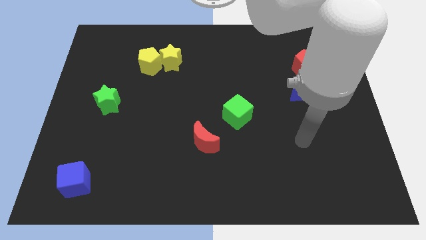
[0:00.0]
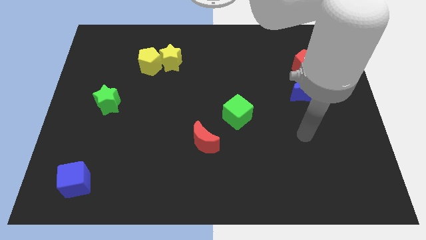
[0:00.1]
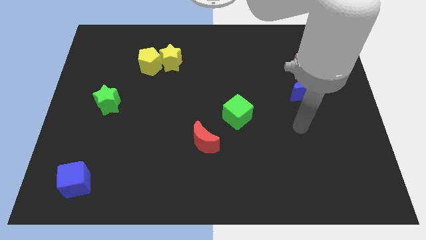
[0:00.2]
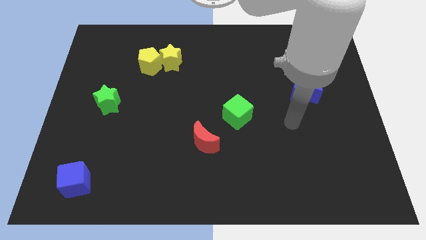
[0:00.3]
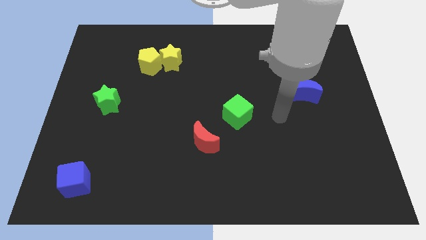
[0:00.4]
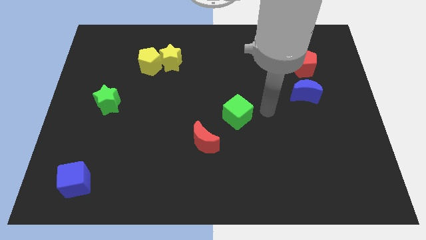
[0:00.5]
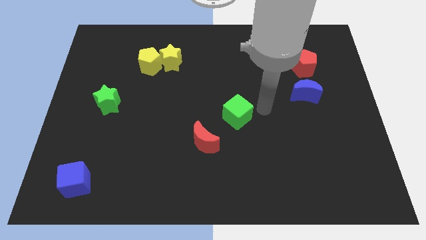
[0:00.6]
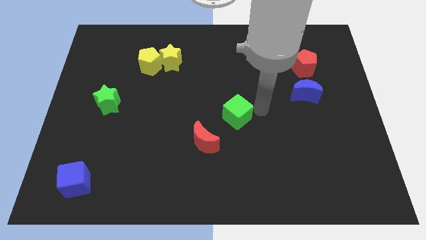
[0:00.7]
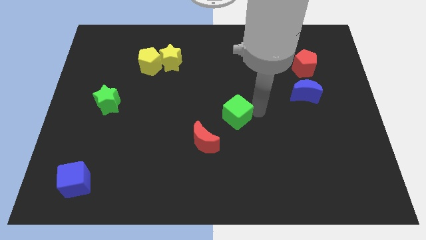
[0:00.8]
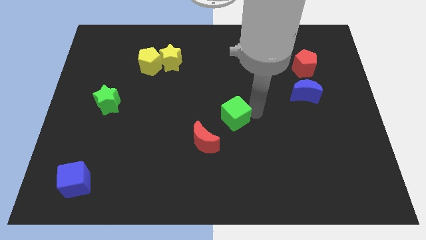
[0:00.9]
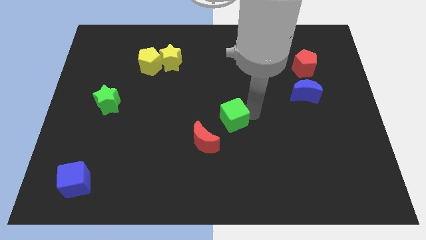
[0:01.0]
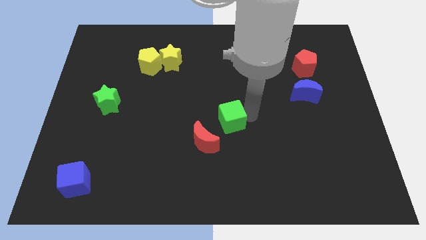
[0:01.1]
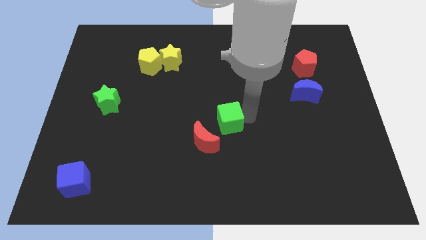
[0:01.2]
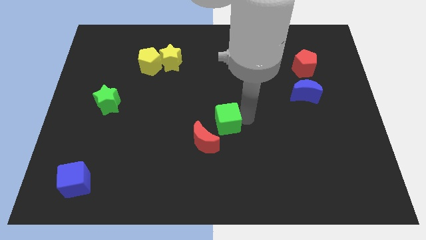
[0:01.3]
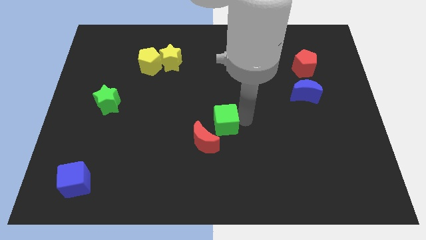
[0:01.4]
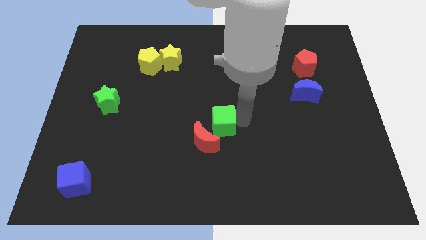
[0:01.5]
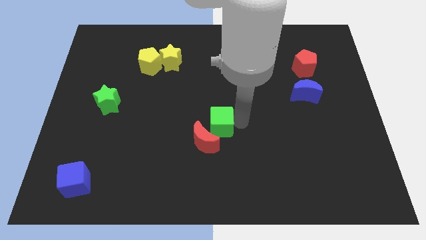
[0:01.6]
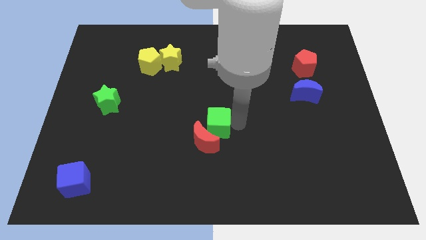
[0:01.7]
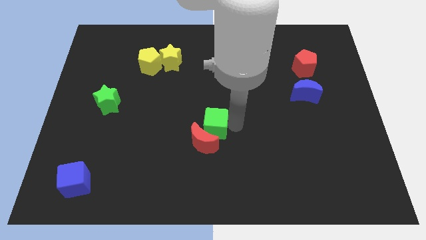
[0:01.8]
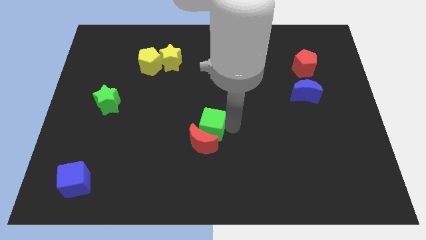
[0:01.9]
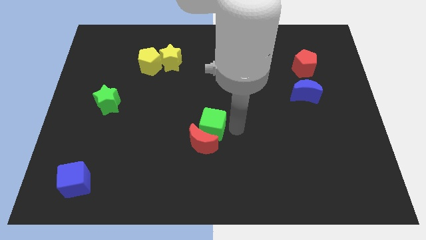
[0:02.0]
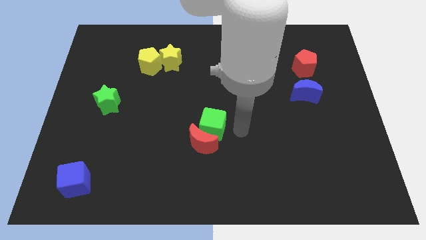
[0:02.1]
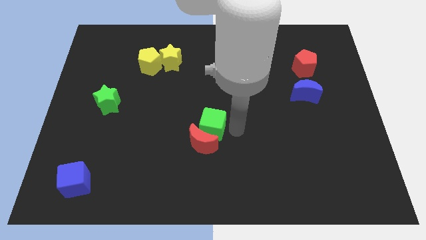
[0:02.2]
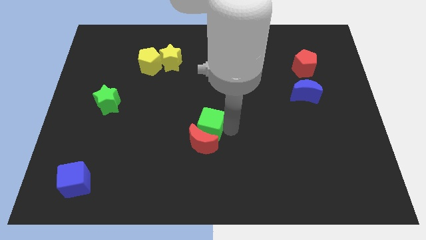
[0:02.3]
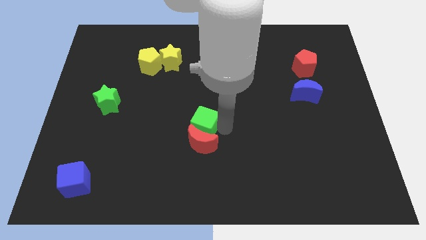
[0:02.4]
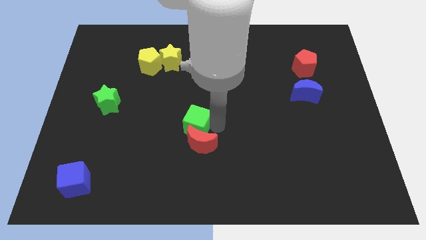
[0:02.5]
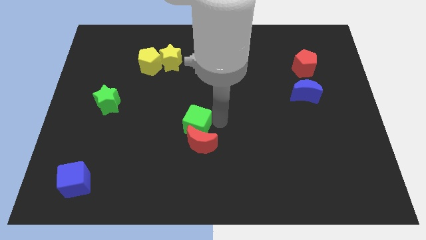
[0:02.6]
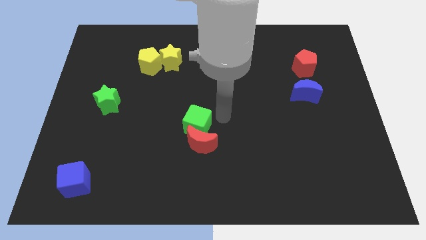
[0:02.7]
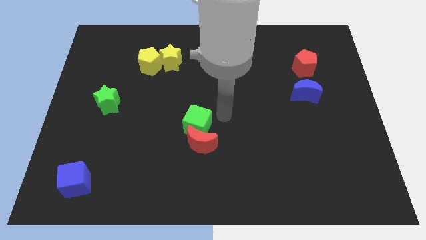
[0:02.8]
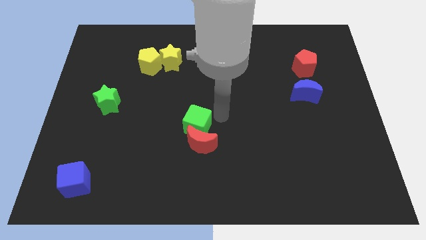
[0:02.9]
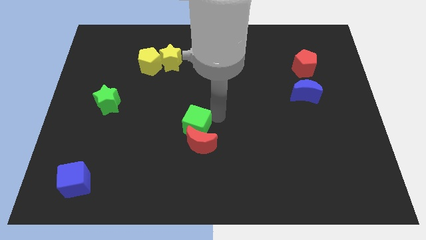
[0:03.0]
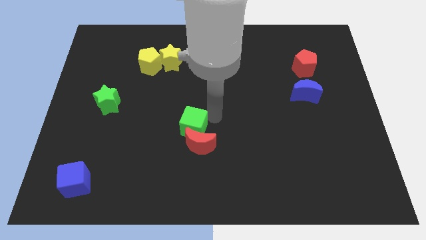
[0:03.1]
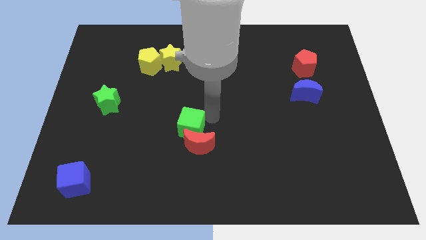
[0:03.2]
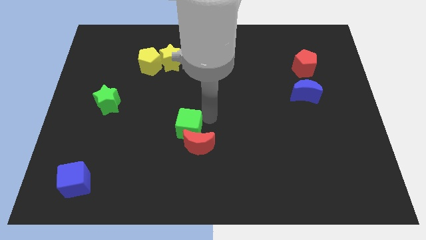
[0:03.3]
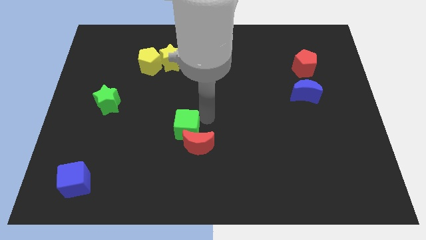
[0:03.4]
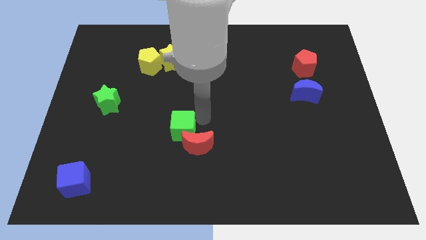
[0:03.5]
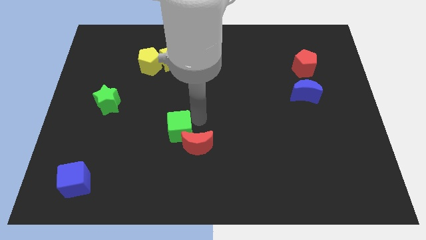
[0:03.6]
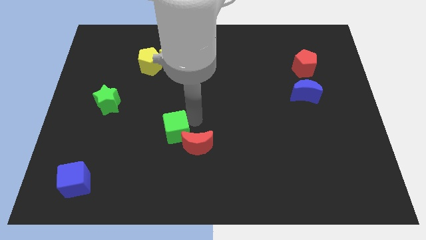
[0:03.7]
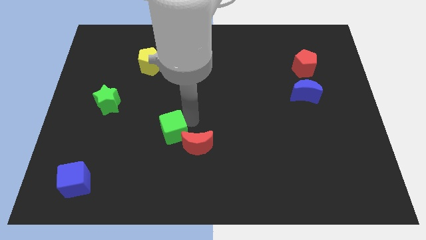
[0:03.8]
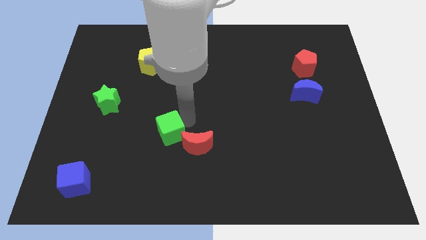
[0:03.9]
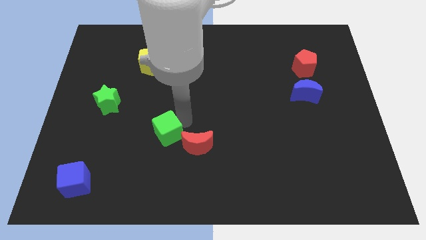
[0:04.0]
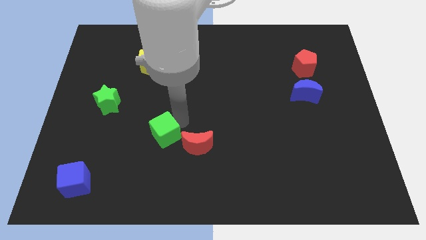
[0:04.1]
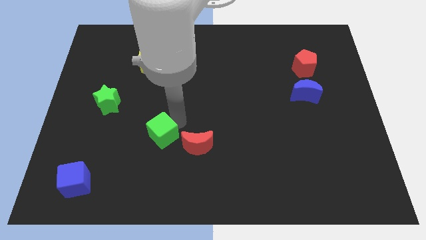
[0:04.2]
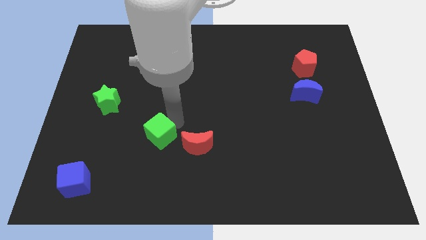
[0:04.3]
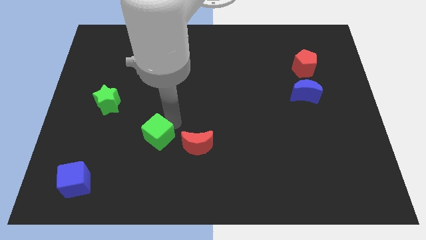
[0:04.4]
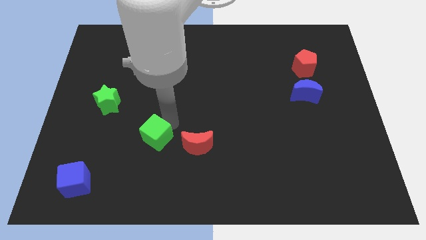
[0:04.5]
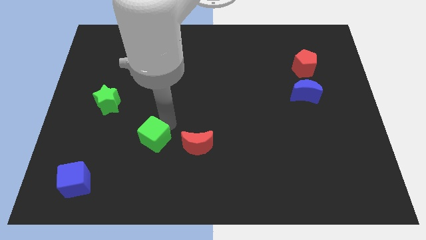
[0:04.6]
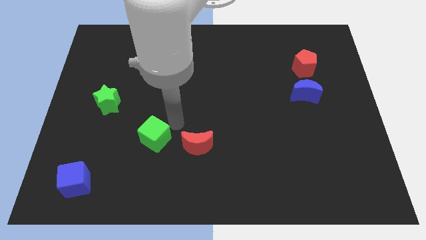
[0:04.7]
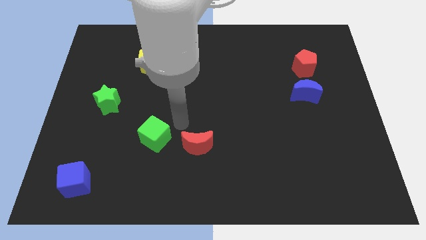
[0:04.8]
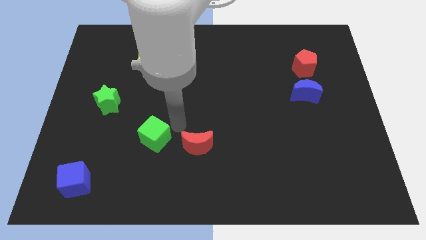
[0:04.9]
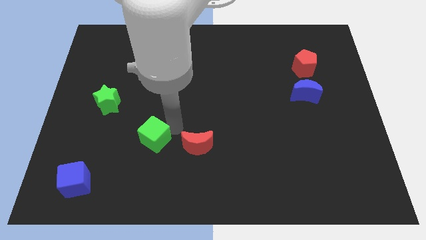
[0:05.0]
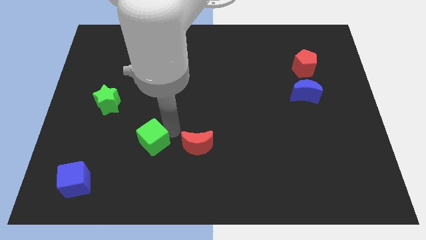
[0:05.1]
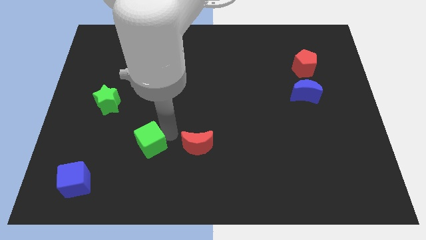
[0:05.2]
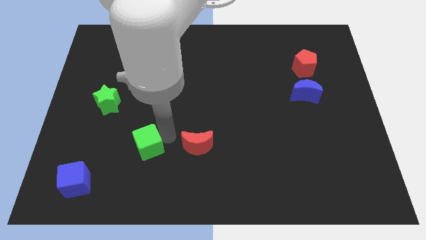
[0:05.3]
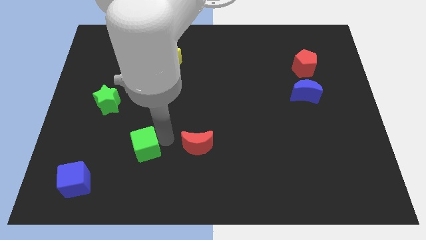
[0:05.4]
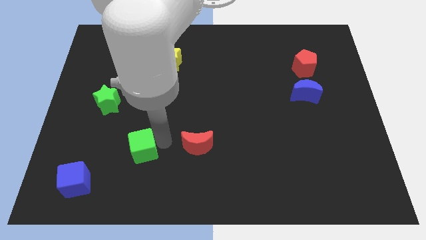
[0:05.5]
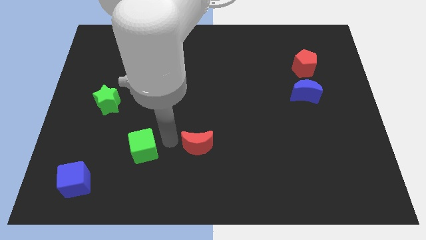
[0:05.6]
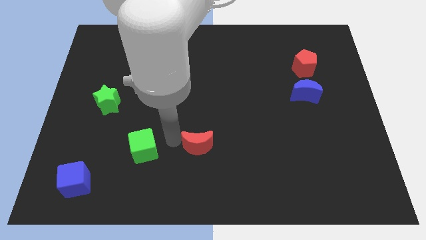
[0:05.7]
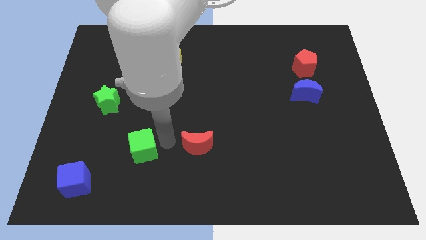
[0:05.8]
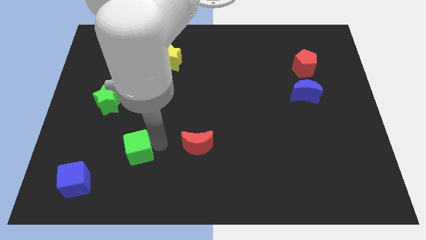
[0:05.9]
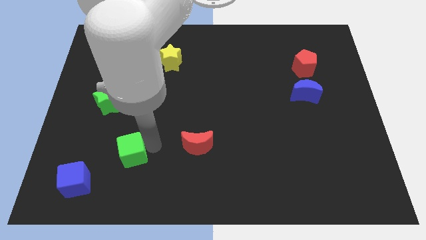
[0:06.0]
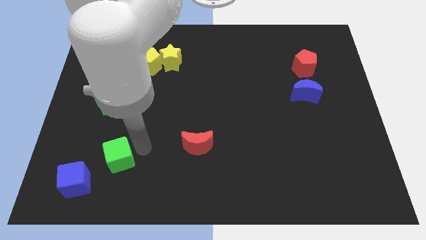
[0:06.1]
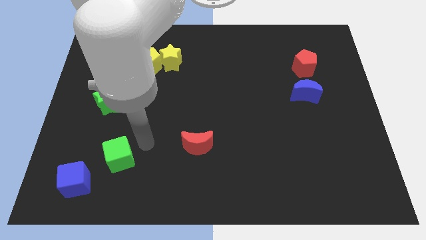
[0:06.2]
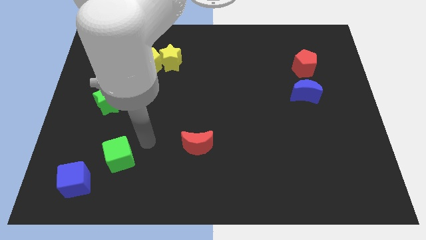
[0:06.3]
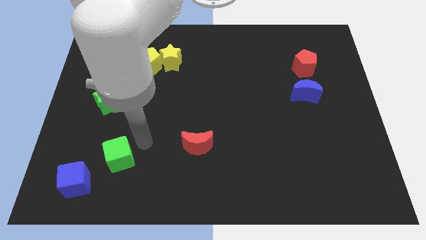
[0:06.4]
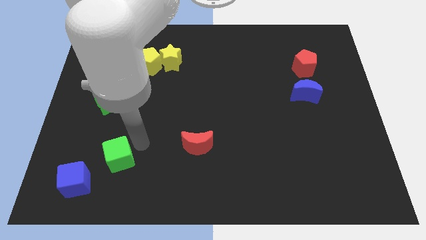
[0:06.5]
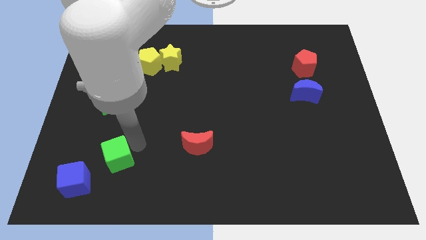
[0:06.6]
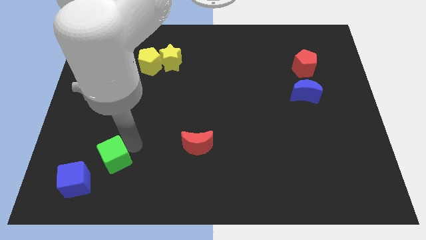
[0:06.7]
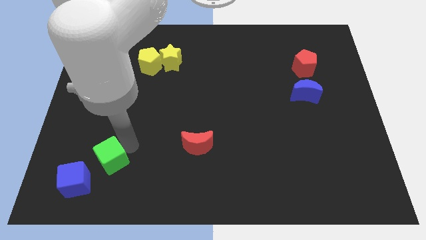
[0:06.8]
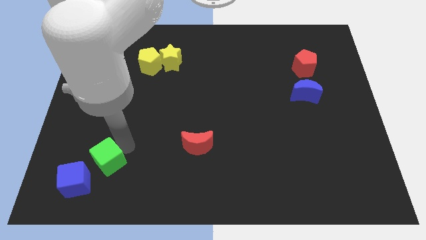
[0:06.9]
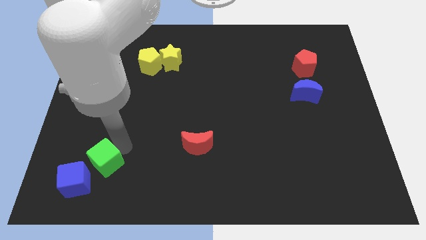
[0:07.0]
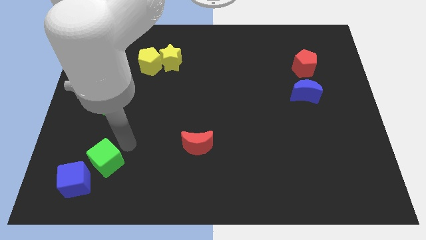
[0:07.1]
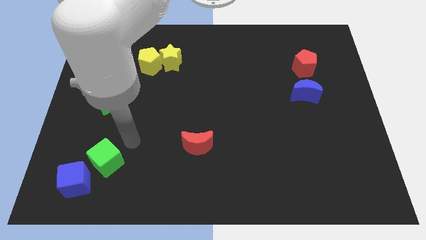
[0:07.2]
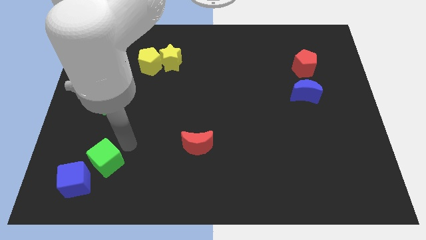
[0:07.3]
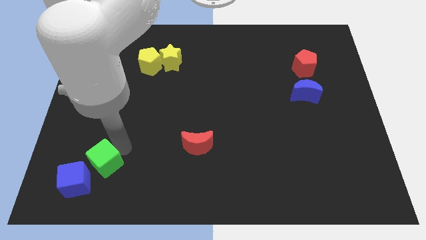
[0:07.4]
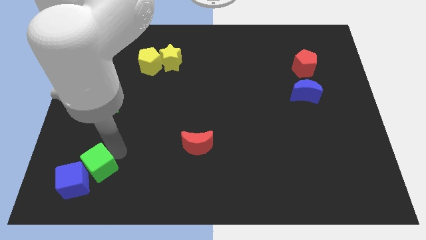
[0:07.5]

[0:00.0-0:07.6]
push the green cube to the blue cube
